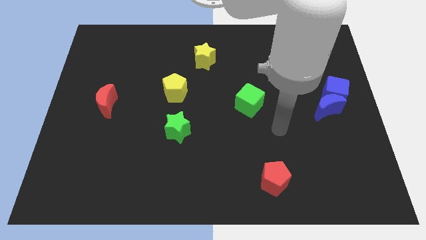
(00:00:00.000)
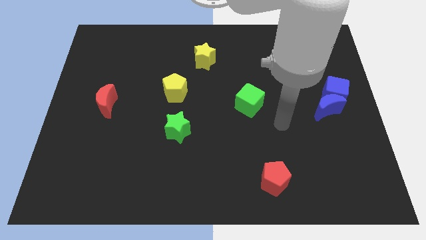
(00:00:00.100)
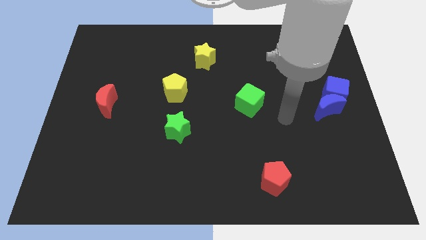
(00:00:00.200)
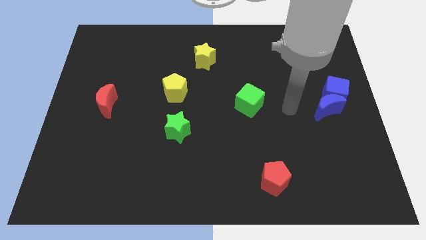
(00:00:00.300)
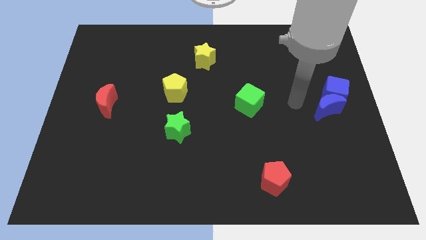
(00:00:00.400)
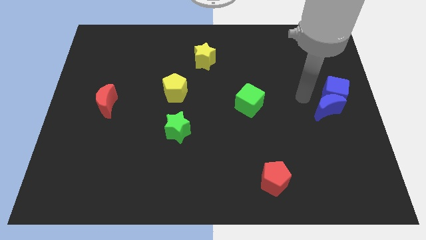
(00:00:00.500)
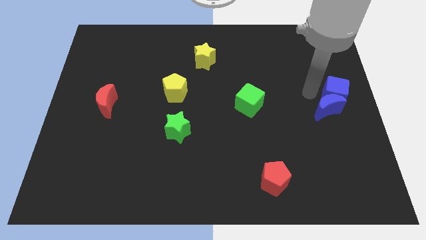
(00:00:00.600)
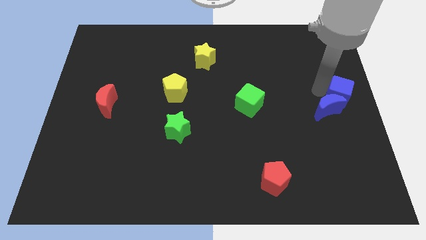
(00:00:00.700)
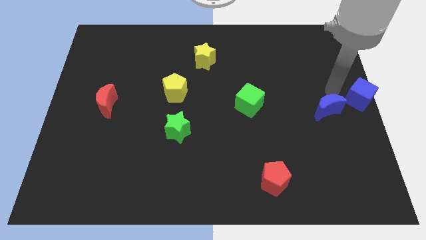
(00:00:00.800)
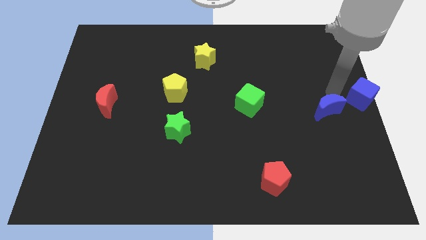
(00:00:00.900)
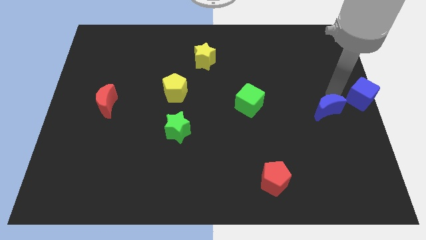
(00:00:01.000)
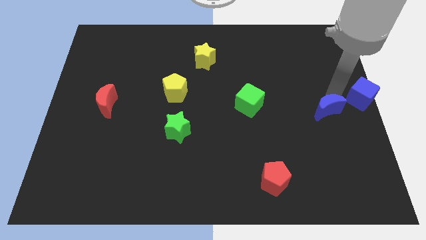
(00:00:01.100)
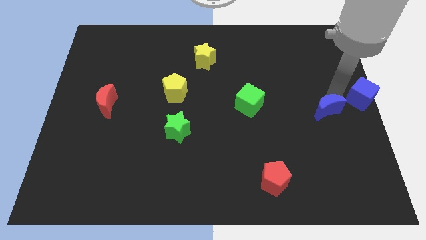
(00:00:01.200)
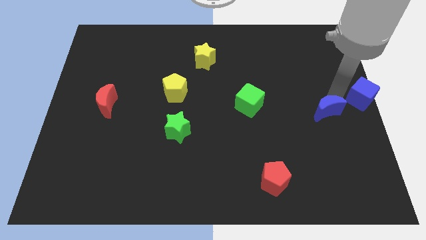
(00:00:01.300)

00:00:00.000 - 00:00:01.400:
pull the blue moon apart from the blue cube

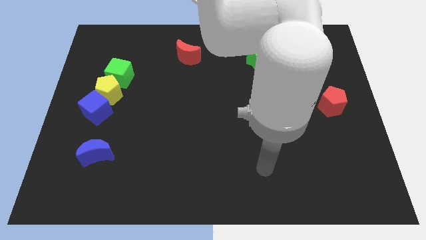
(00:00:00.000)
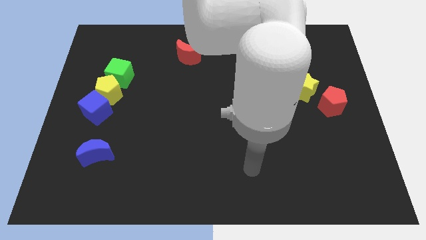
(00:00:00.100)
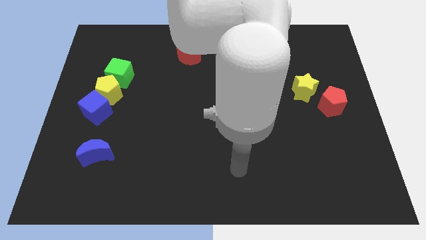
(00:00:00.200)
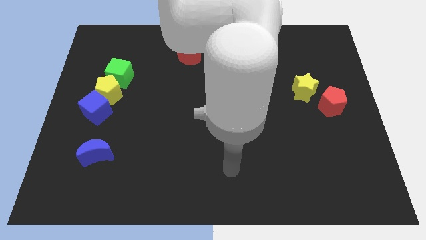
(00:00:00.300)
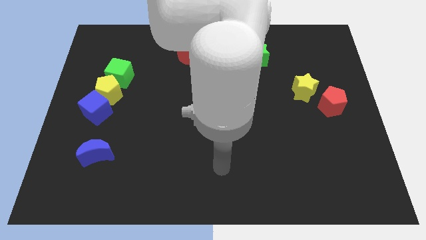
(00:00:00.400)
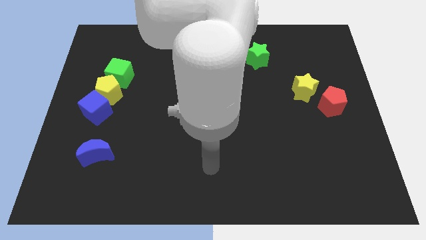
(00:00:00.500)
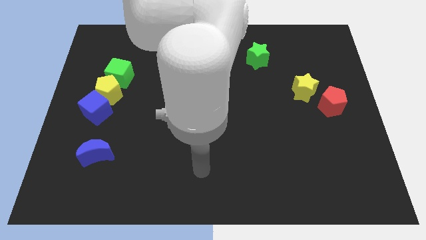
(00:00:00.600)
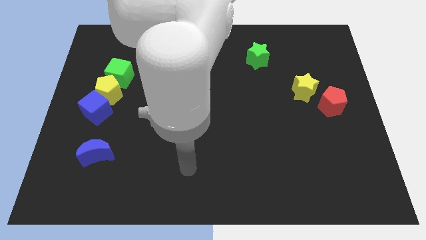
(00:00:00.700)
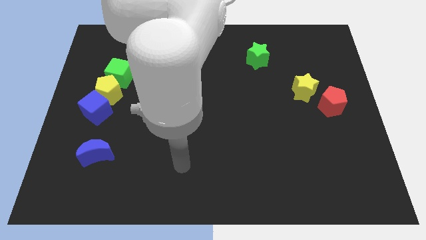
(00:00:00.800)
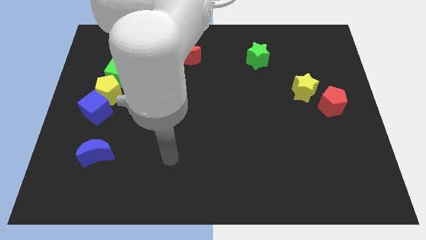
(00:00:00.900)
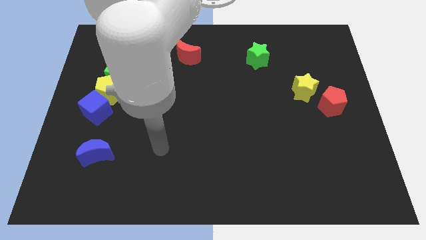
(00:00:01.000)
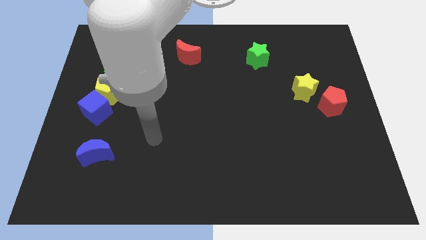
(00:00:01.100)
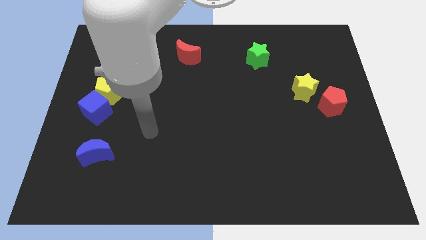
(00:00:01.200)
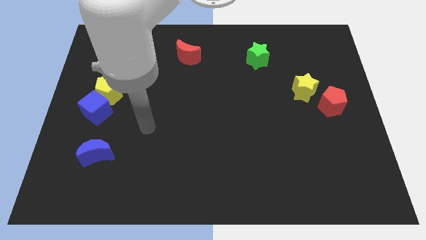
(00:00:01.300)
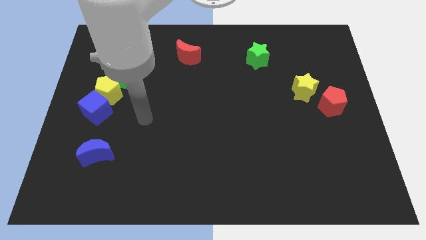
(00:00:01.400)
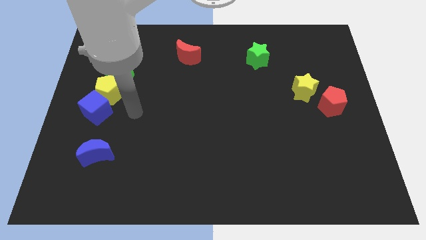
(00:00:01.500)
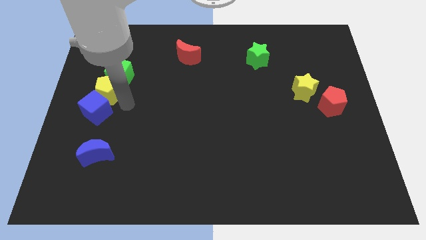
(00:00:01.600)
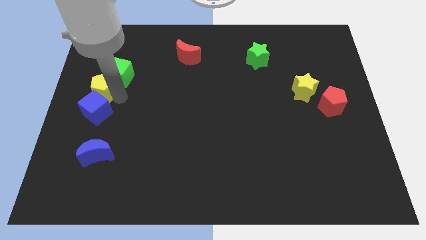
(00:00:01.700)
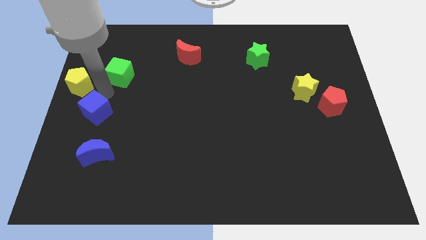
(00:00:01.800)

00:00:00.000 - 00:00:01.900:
pull the green cube apart from the yellow pentagon

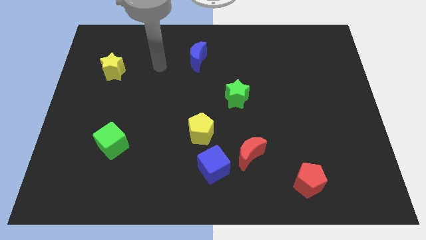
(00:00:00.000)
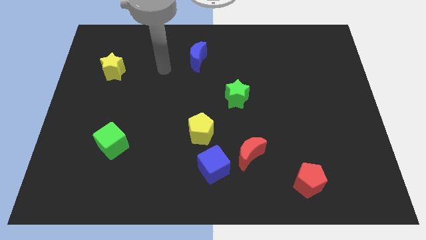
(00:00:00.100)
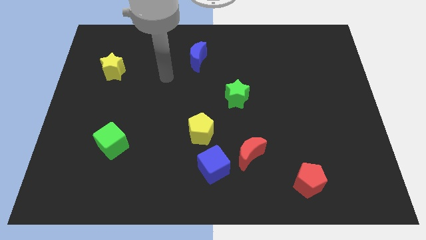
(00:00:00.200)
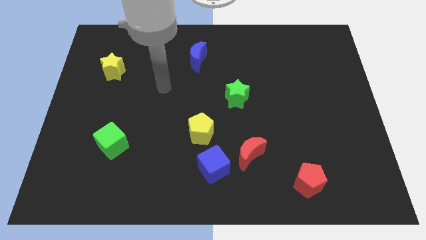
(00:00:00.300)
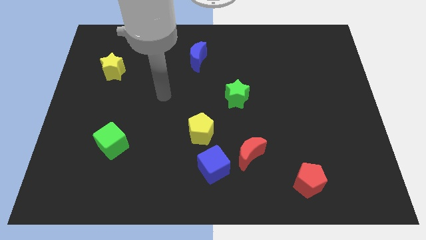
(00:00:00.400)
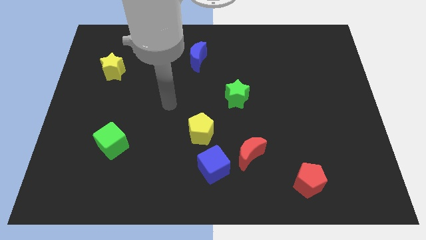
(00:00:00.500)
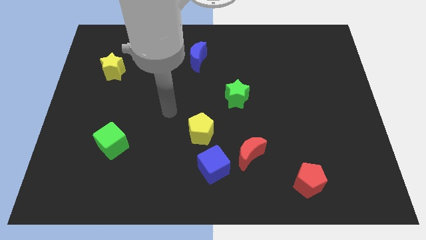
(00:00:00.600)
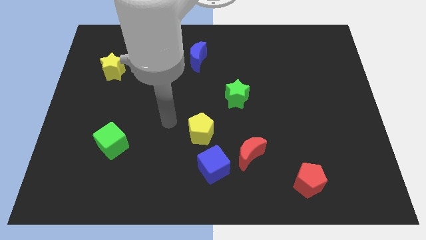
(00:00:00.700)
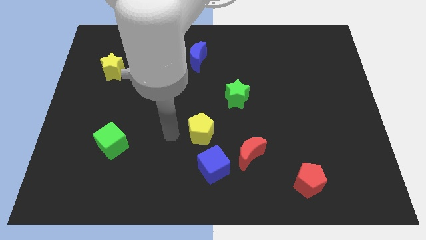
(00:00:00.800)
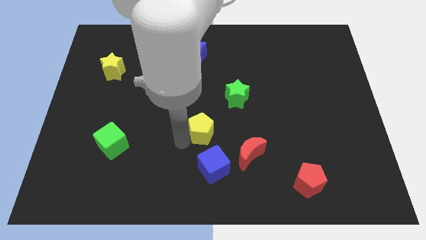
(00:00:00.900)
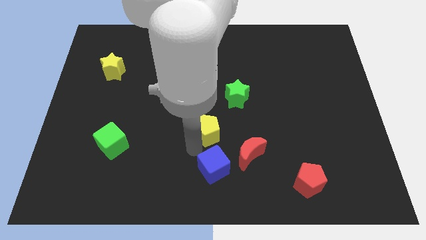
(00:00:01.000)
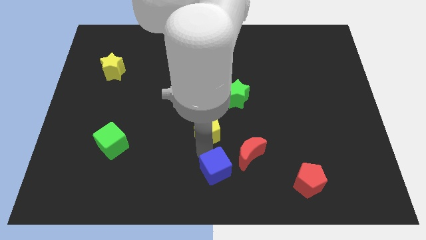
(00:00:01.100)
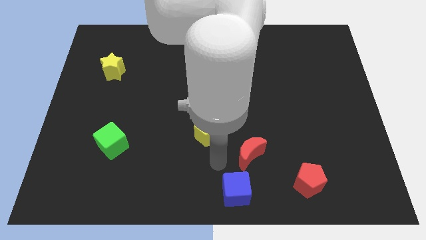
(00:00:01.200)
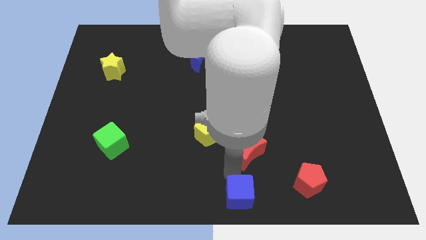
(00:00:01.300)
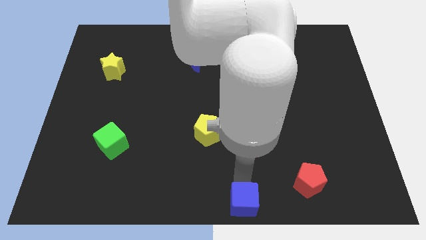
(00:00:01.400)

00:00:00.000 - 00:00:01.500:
move the red moon away from the blue cube

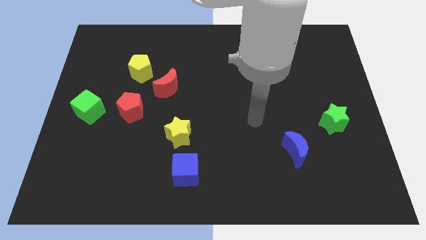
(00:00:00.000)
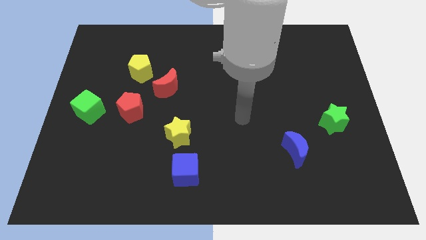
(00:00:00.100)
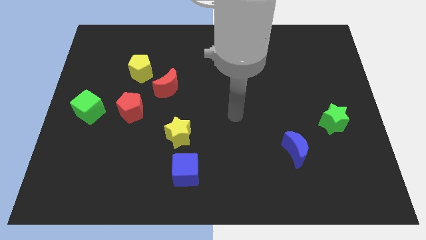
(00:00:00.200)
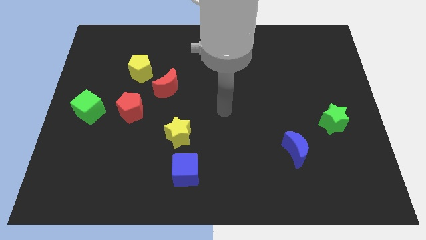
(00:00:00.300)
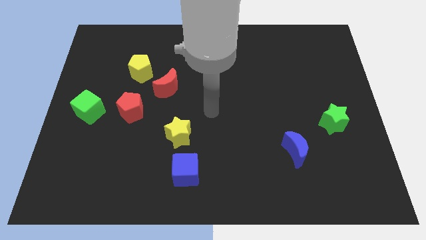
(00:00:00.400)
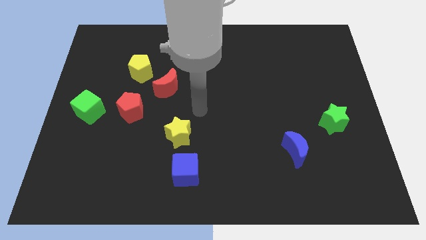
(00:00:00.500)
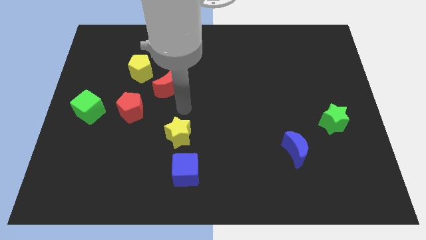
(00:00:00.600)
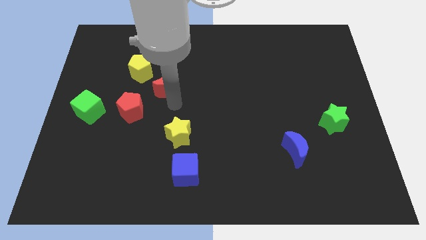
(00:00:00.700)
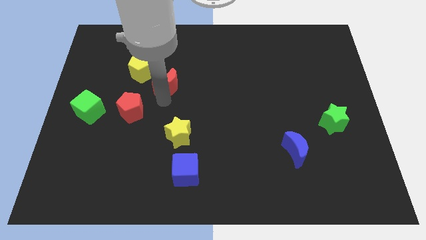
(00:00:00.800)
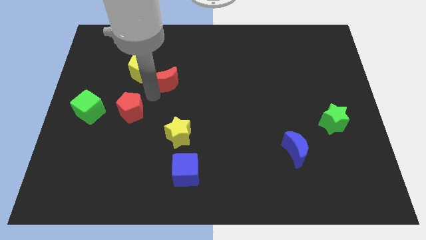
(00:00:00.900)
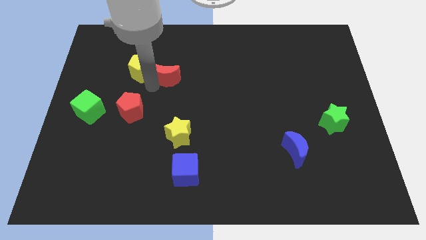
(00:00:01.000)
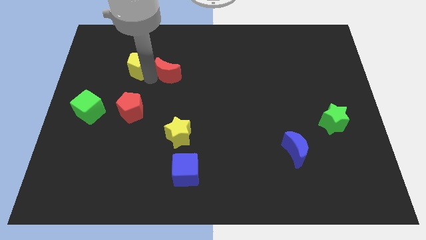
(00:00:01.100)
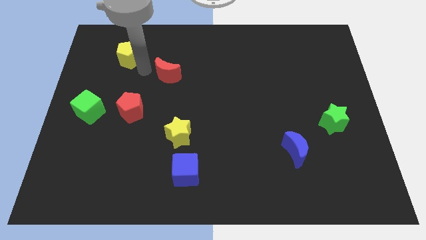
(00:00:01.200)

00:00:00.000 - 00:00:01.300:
pull the red moon apart from the yellow pentagon

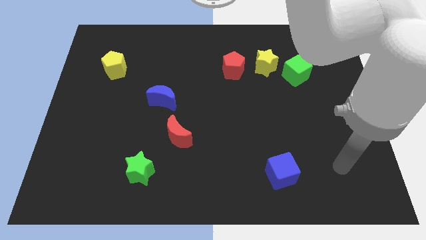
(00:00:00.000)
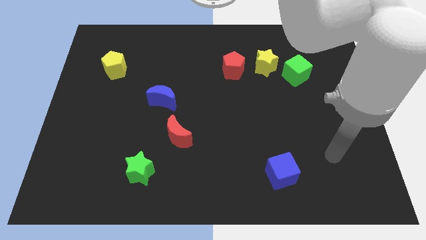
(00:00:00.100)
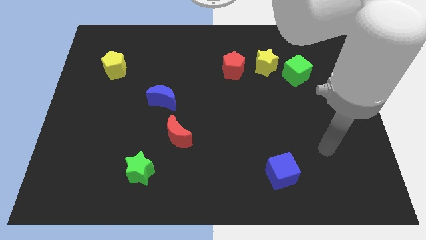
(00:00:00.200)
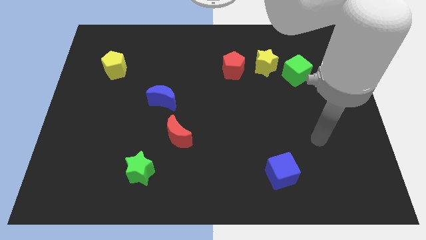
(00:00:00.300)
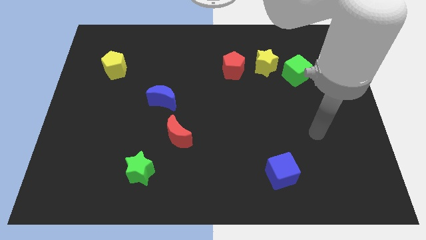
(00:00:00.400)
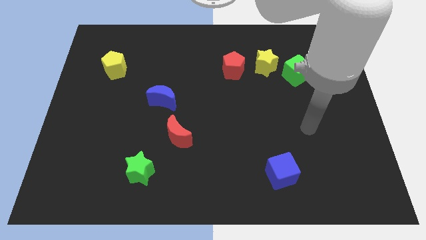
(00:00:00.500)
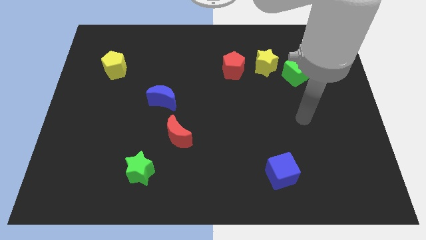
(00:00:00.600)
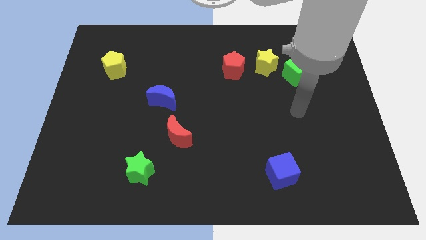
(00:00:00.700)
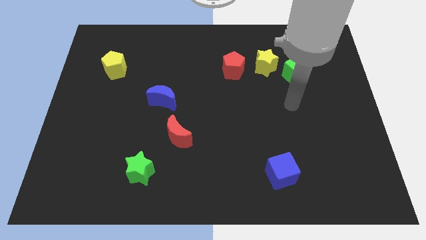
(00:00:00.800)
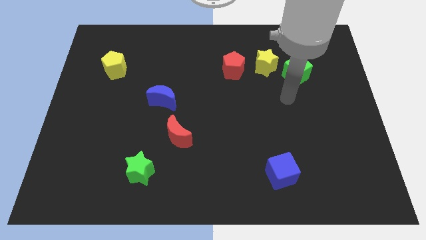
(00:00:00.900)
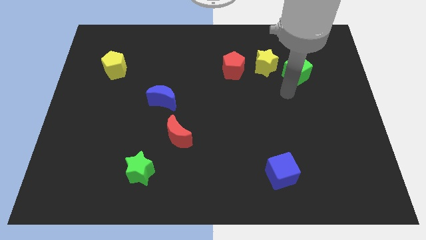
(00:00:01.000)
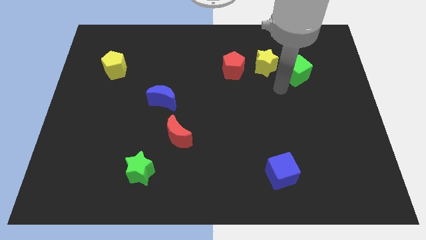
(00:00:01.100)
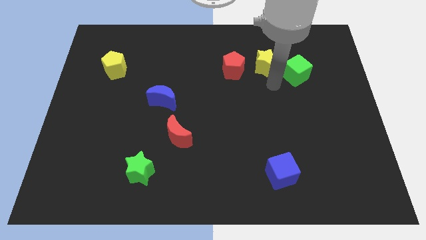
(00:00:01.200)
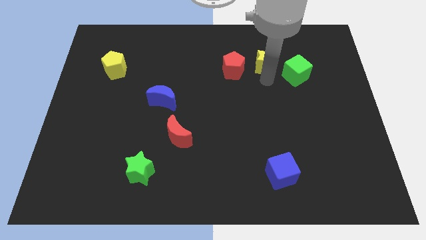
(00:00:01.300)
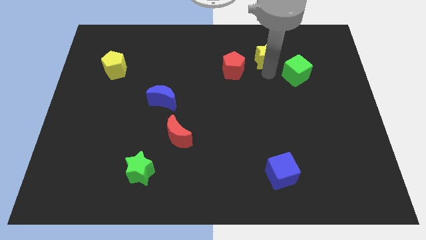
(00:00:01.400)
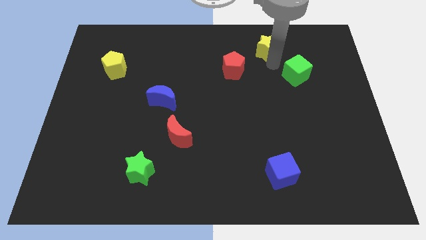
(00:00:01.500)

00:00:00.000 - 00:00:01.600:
pull the green cube apart from the yellow star

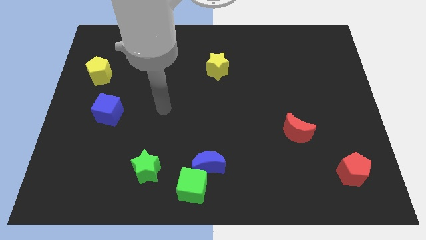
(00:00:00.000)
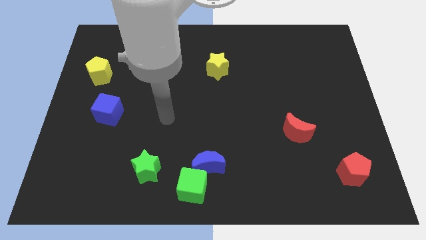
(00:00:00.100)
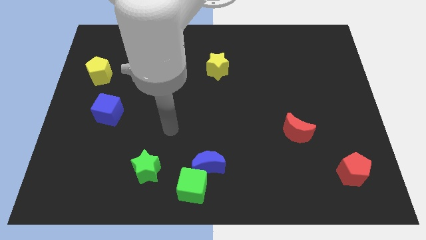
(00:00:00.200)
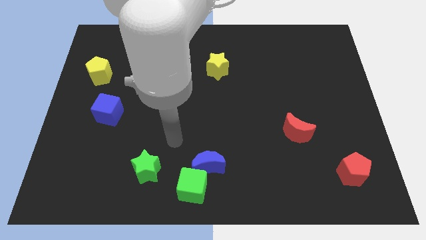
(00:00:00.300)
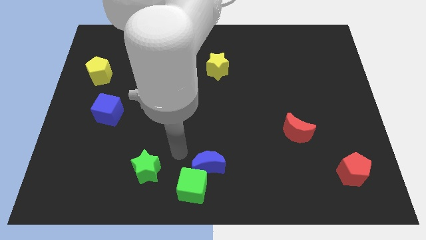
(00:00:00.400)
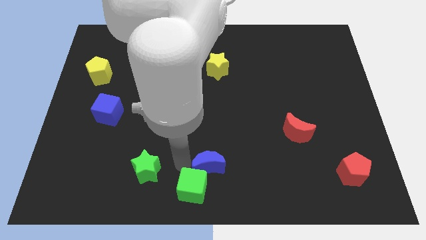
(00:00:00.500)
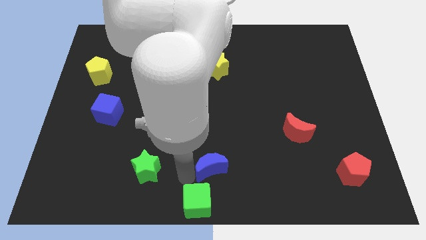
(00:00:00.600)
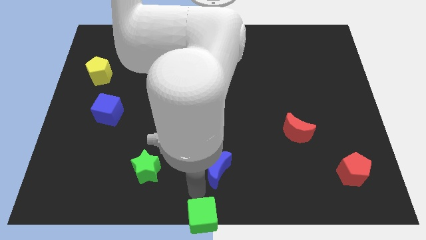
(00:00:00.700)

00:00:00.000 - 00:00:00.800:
separate the blue moon from the green cube

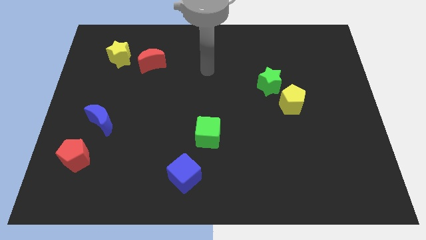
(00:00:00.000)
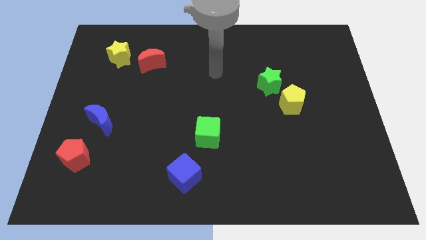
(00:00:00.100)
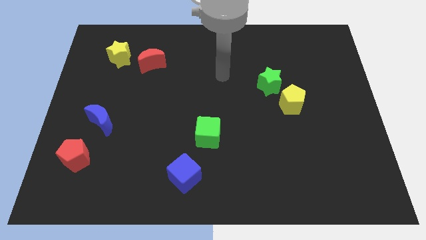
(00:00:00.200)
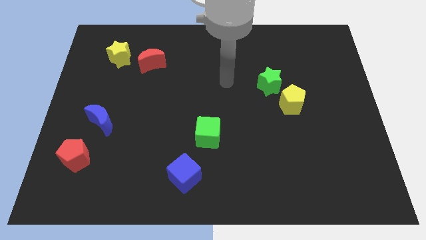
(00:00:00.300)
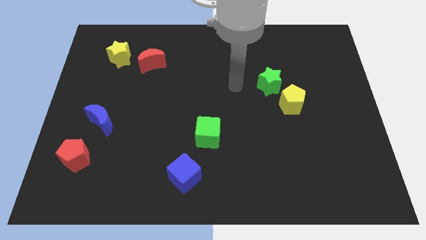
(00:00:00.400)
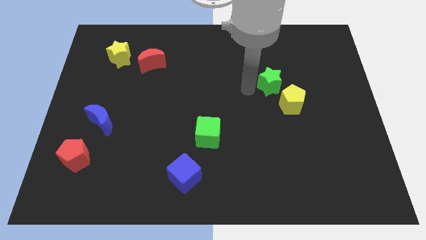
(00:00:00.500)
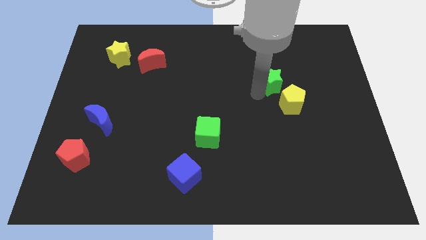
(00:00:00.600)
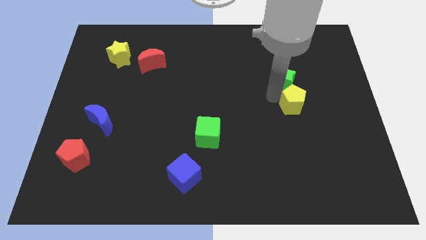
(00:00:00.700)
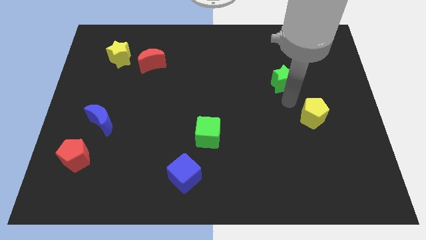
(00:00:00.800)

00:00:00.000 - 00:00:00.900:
pull the green star apart from the yellow pentagon
